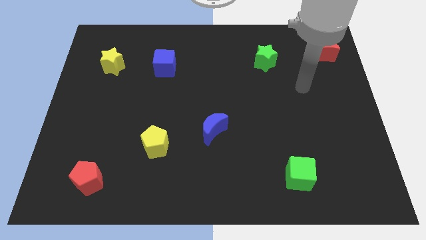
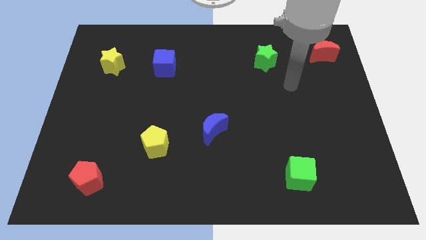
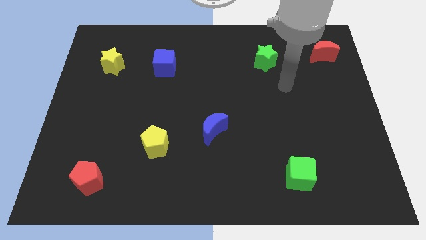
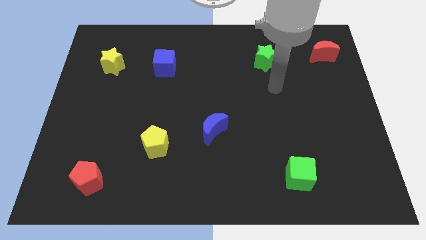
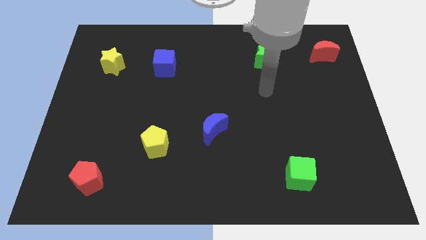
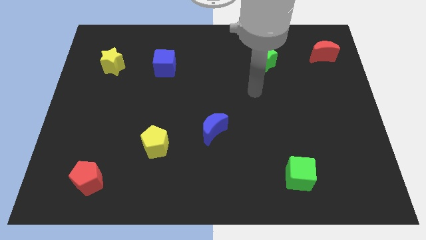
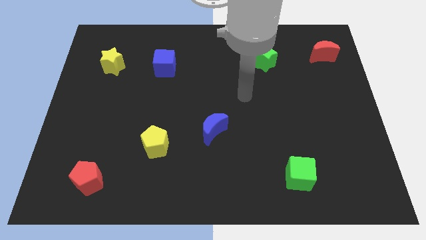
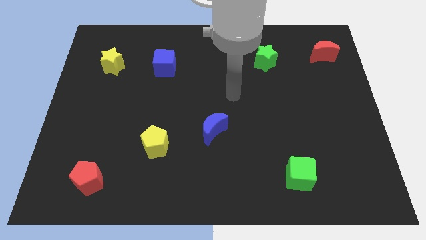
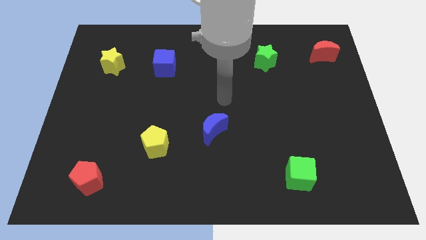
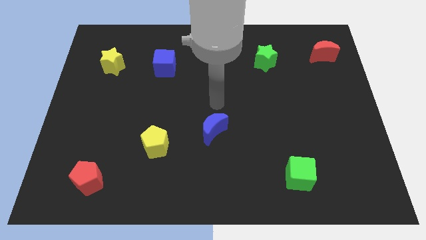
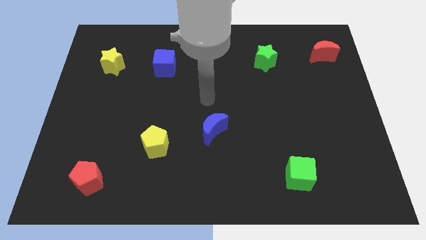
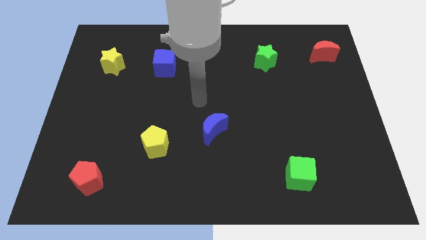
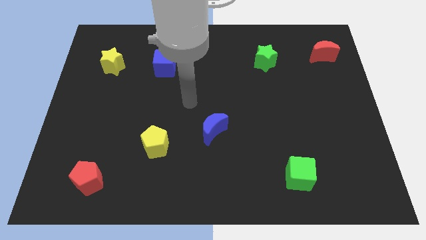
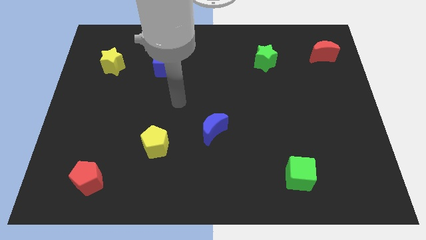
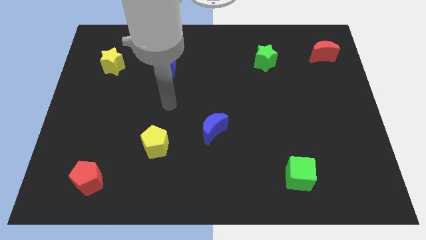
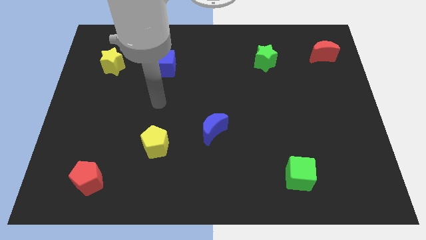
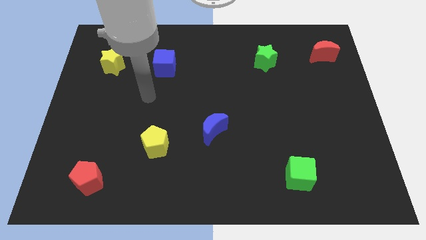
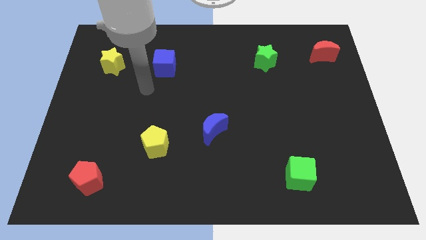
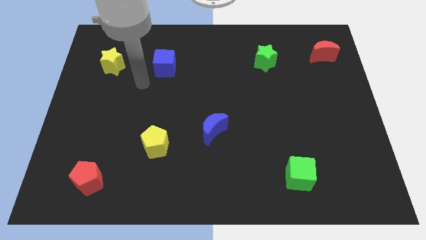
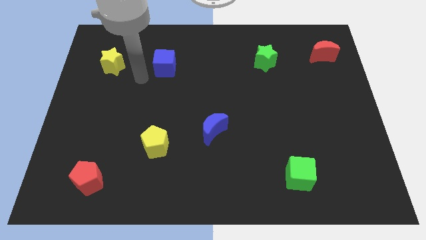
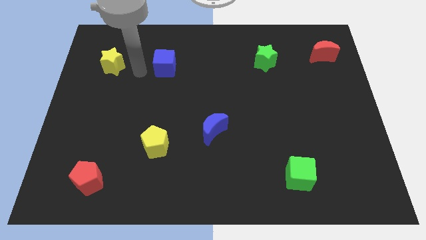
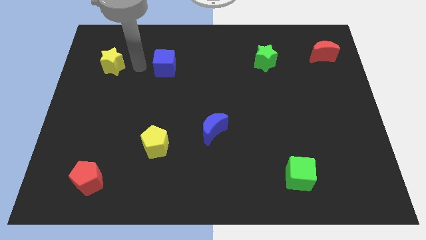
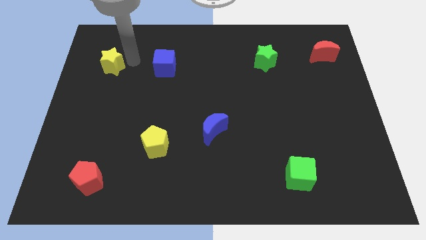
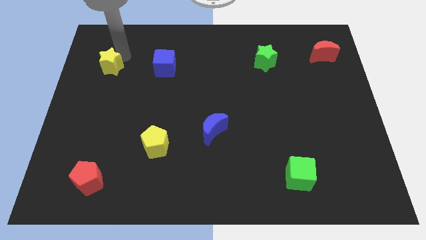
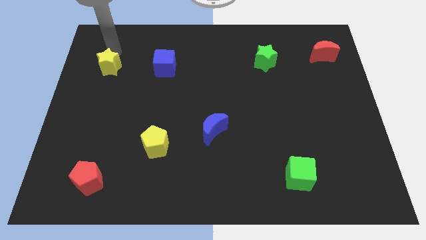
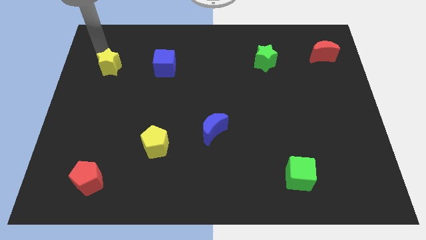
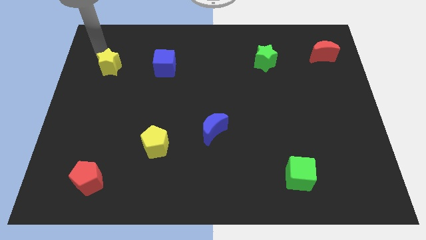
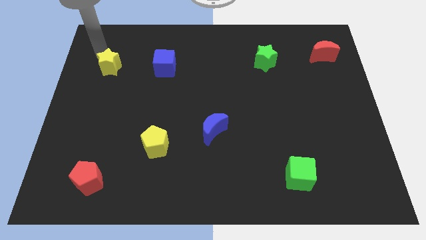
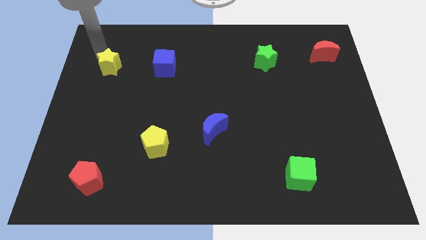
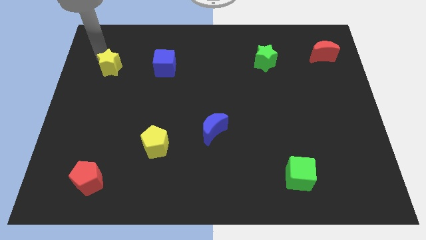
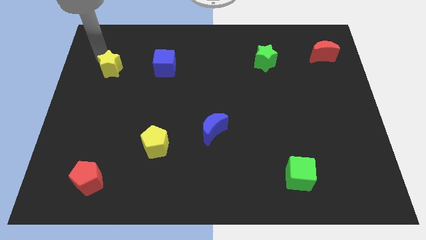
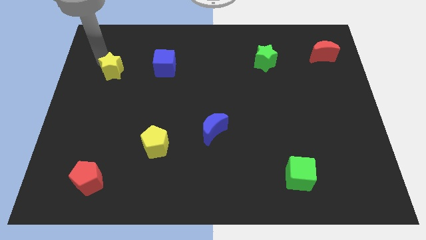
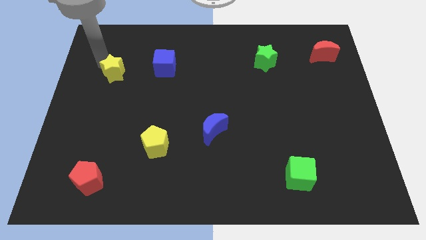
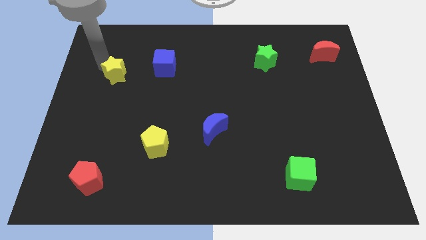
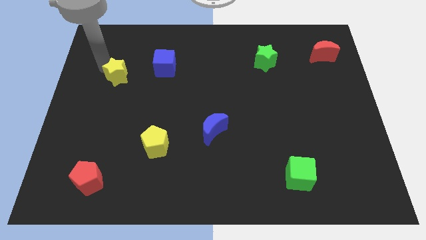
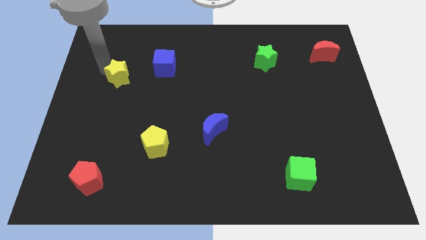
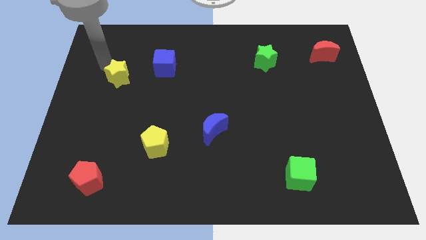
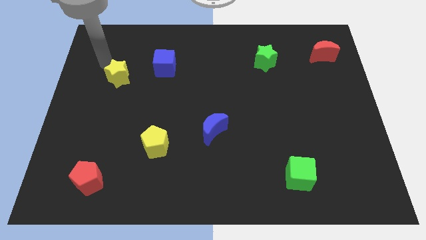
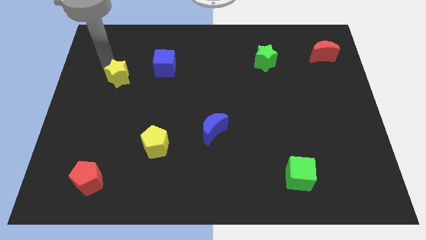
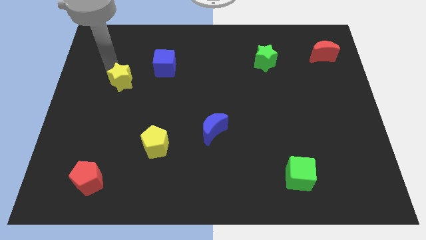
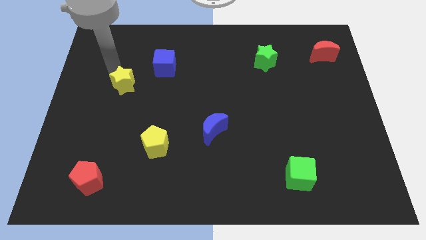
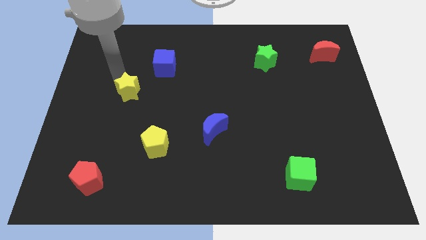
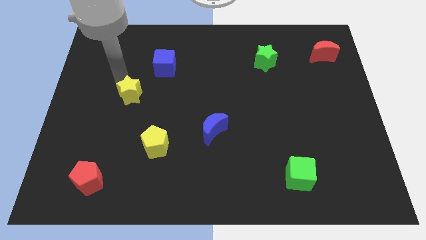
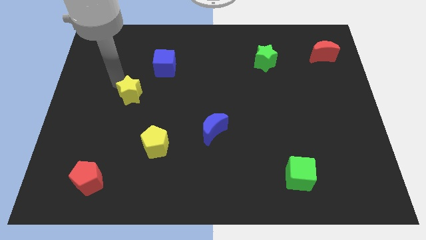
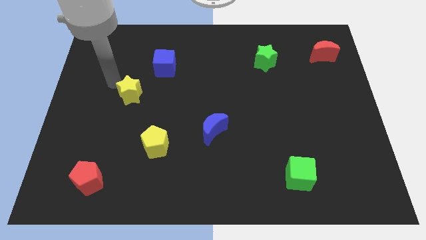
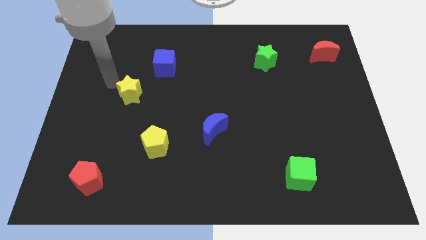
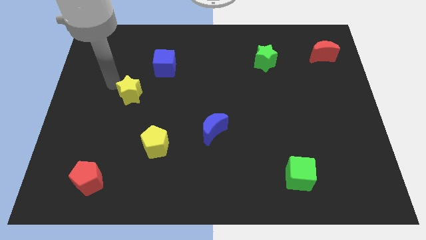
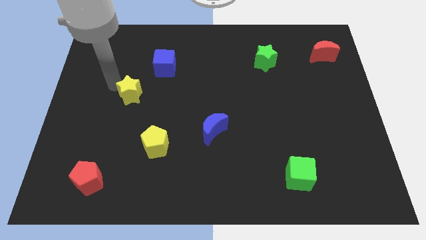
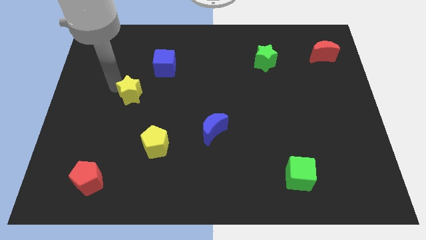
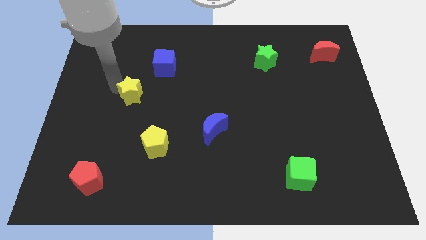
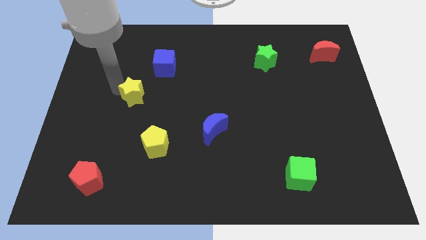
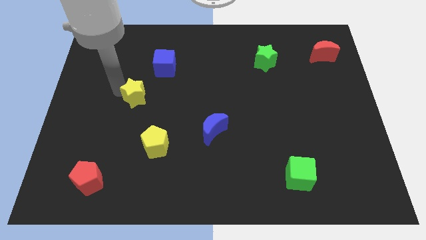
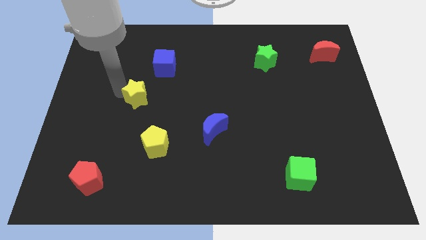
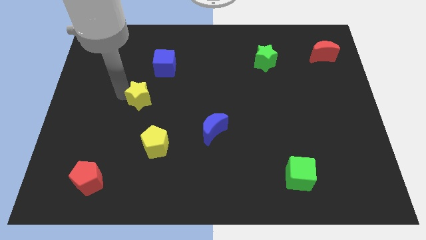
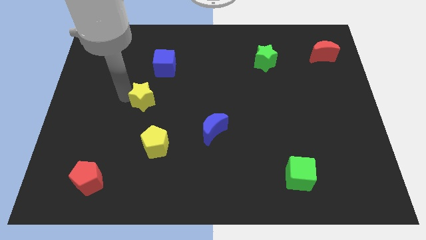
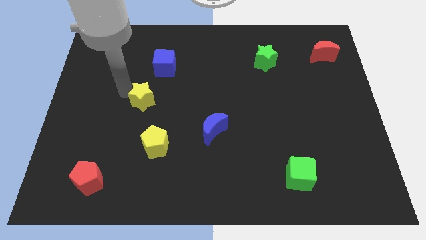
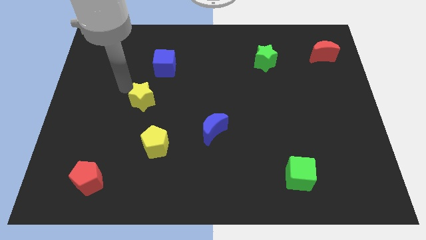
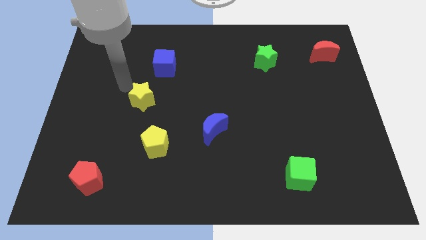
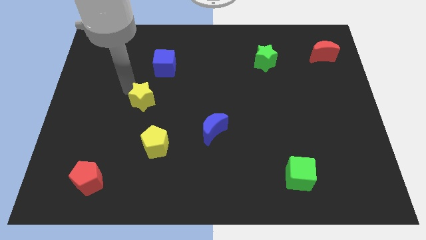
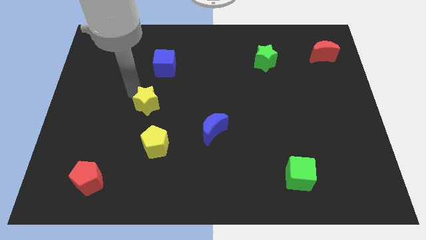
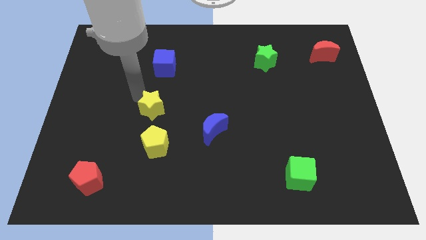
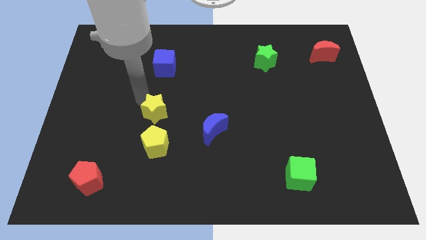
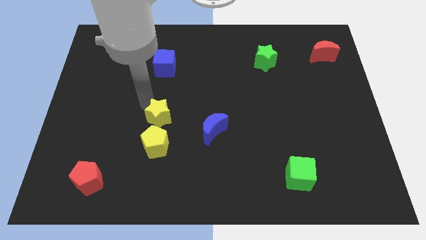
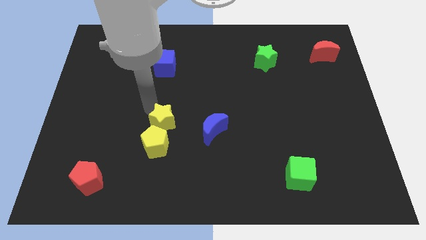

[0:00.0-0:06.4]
push the yellow star to the top right side of the yellow pentagon
